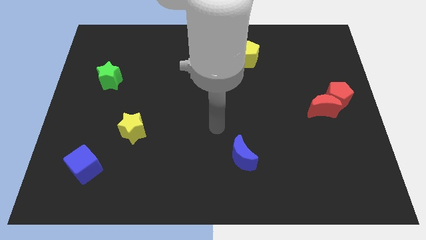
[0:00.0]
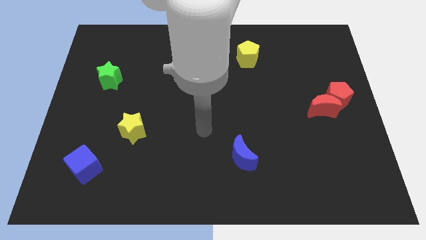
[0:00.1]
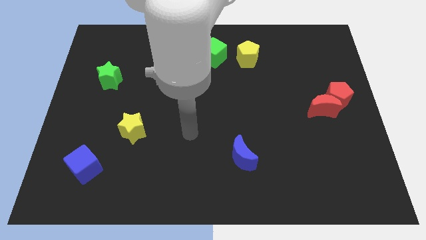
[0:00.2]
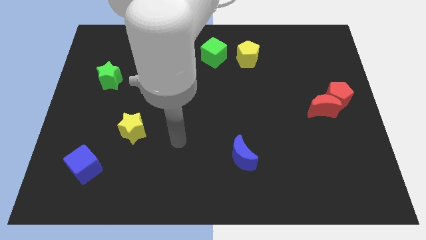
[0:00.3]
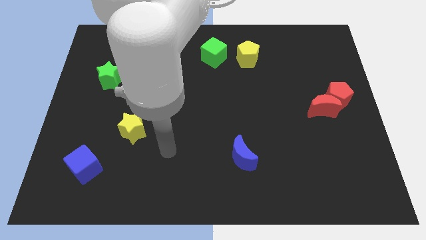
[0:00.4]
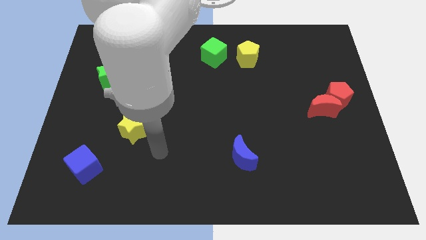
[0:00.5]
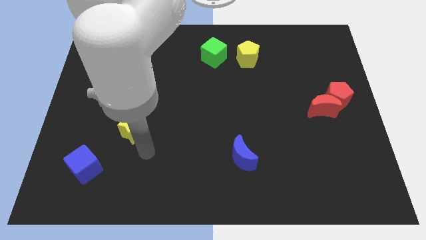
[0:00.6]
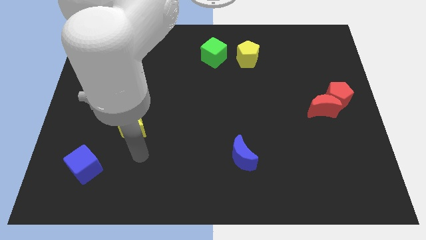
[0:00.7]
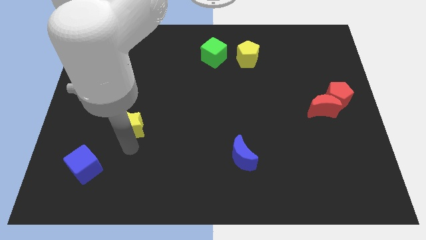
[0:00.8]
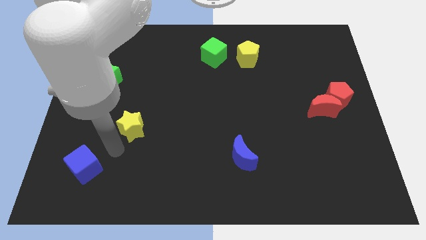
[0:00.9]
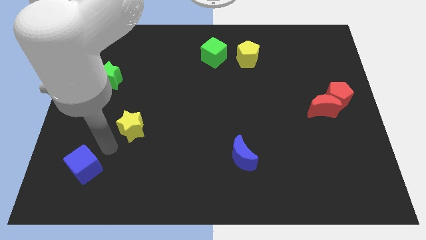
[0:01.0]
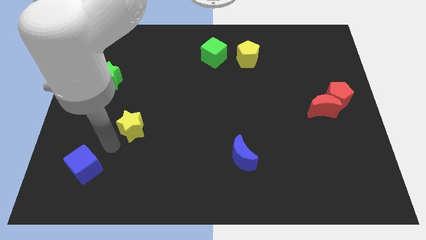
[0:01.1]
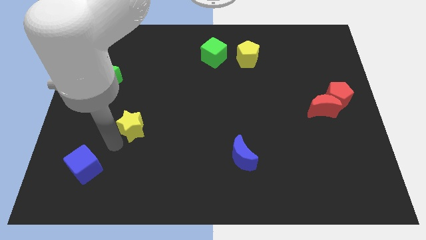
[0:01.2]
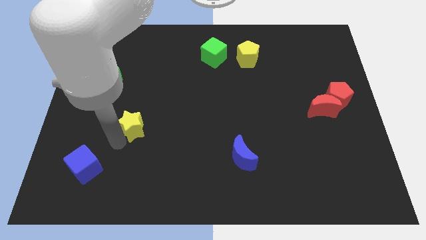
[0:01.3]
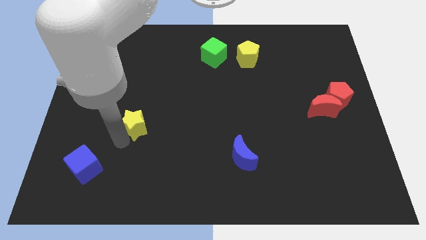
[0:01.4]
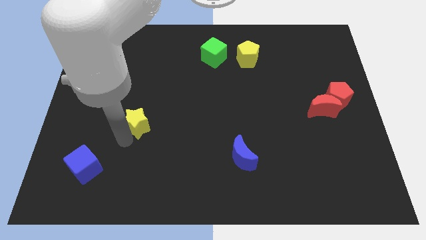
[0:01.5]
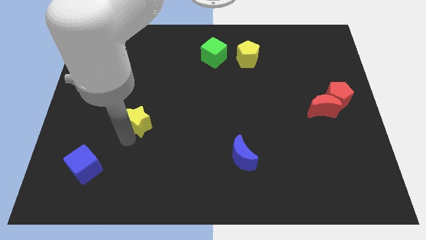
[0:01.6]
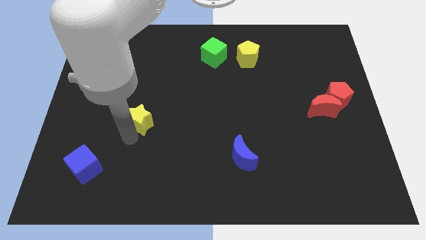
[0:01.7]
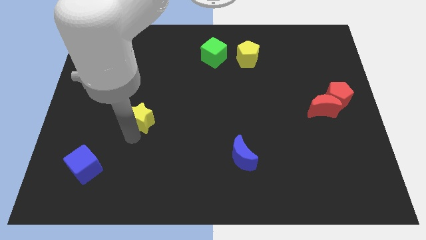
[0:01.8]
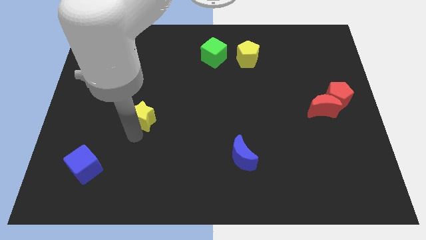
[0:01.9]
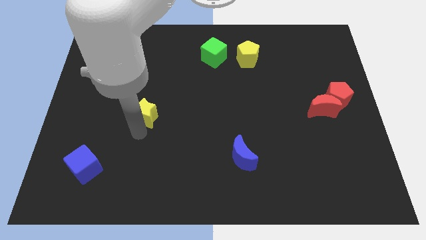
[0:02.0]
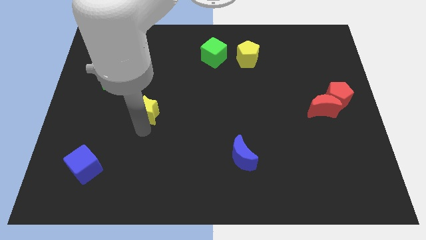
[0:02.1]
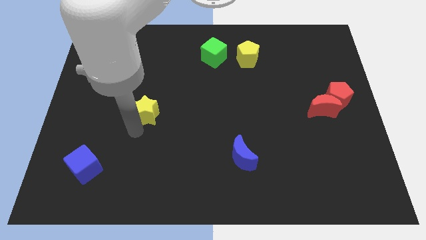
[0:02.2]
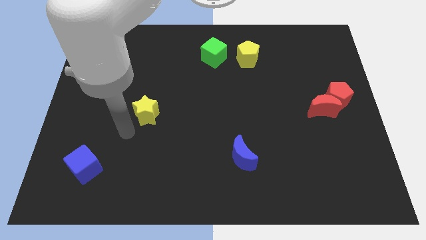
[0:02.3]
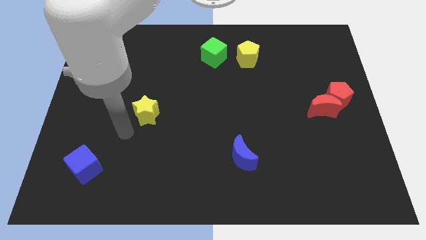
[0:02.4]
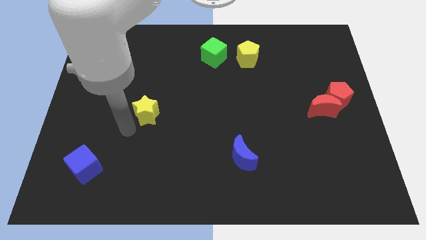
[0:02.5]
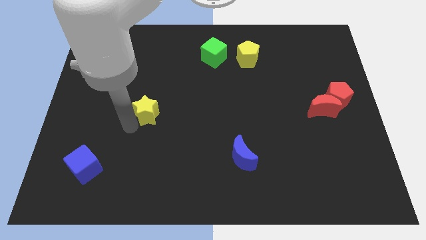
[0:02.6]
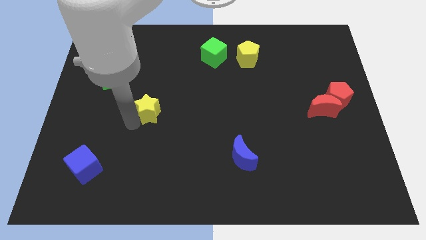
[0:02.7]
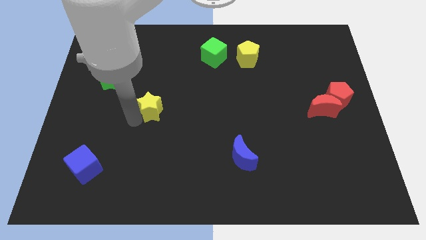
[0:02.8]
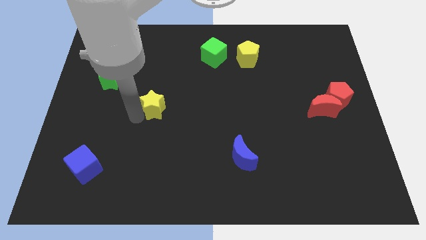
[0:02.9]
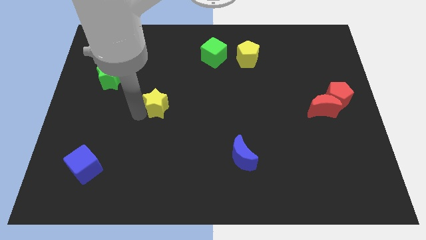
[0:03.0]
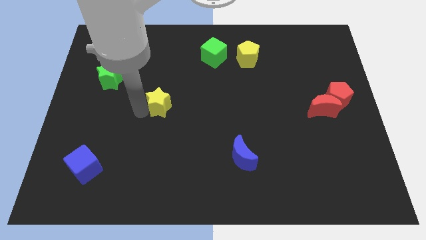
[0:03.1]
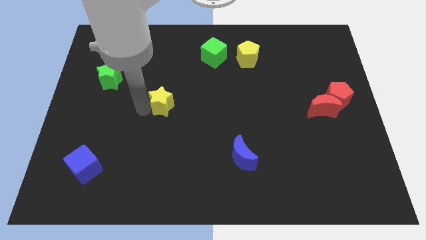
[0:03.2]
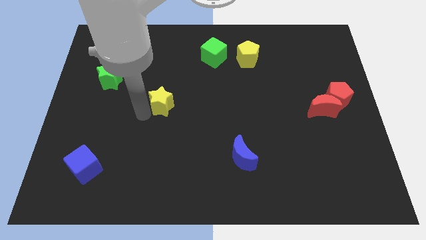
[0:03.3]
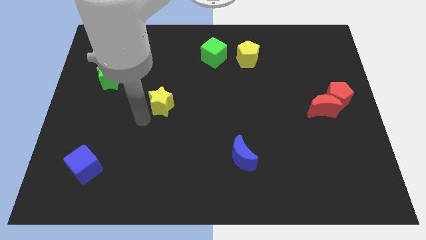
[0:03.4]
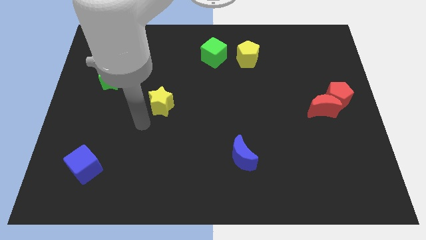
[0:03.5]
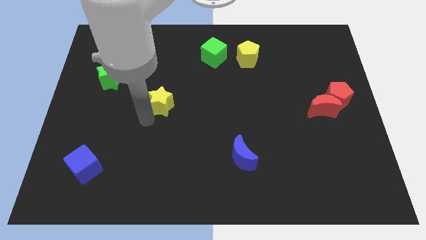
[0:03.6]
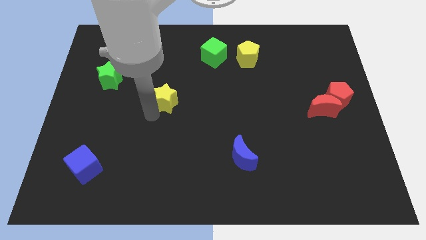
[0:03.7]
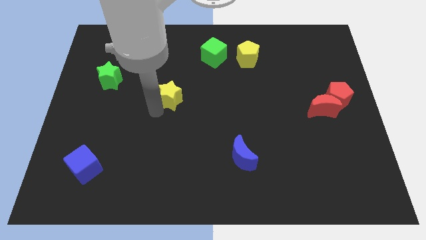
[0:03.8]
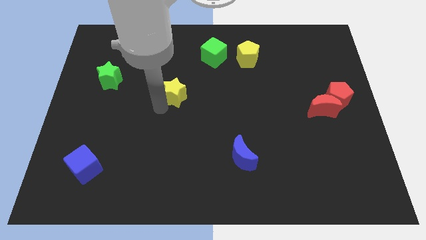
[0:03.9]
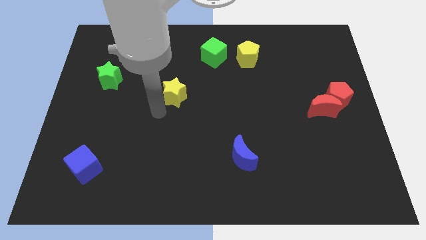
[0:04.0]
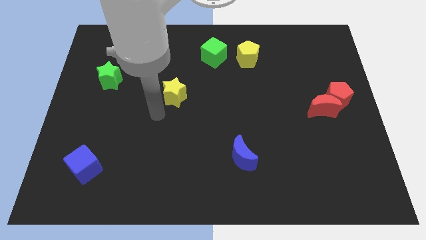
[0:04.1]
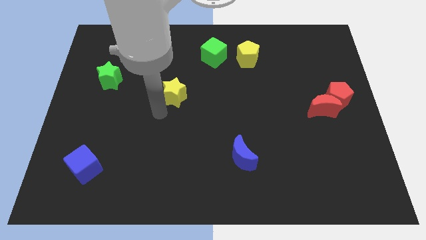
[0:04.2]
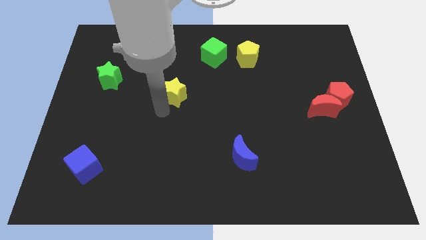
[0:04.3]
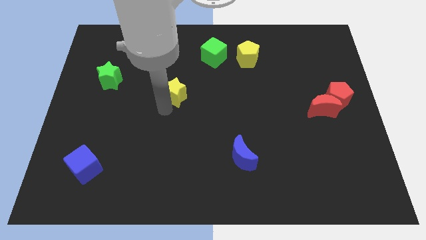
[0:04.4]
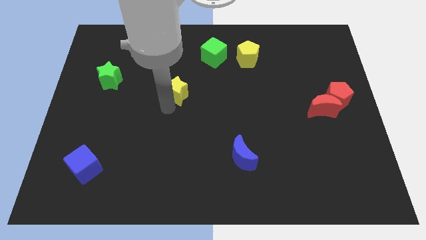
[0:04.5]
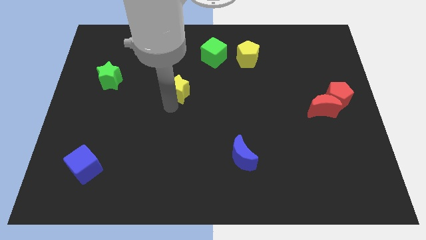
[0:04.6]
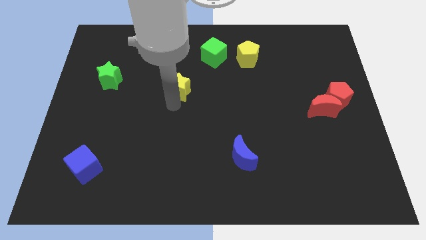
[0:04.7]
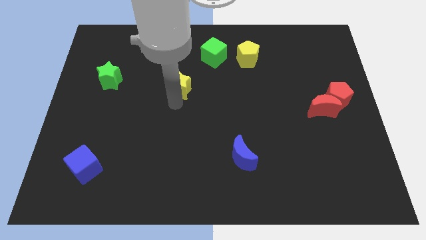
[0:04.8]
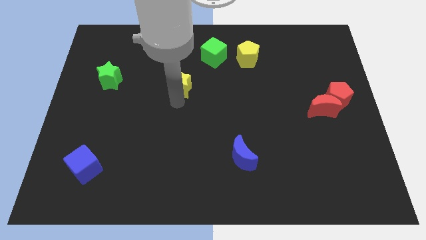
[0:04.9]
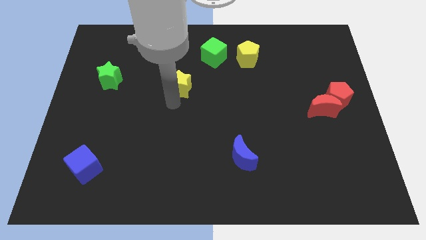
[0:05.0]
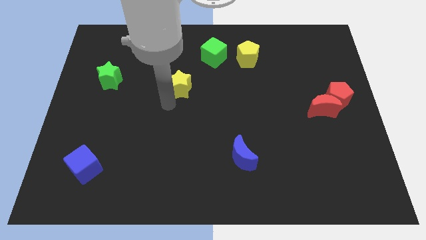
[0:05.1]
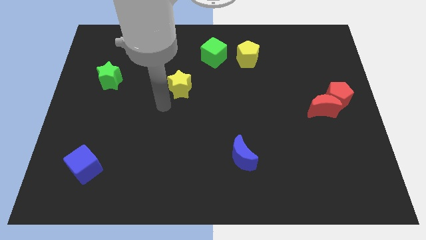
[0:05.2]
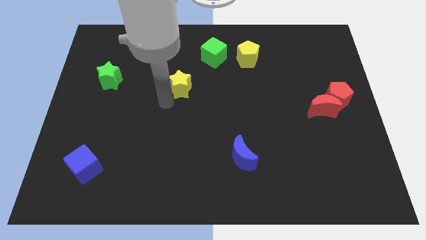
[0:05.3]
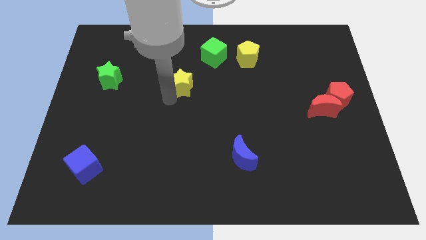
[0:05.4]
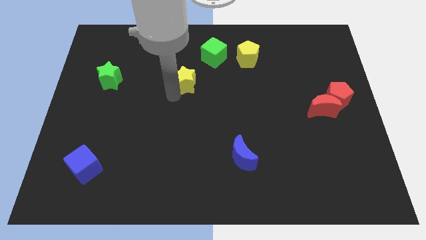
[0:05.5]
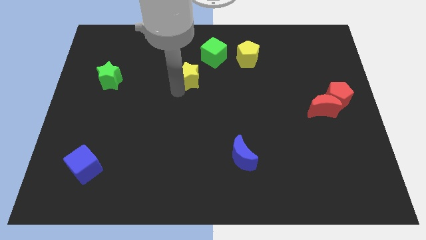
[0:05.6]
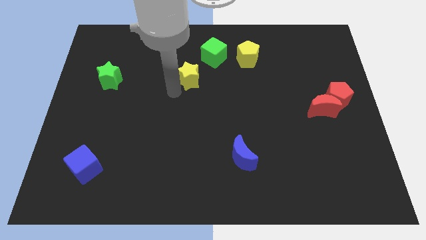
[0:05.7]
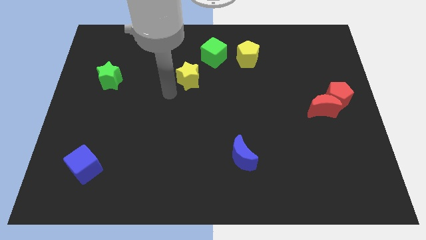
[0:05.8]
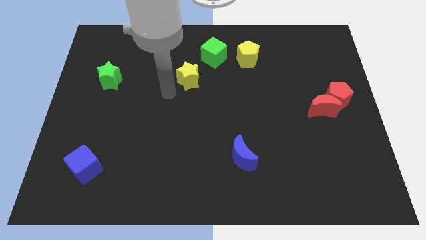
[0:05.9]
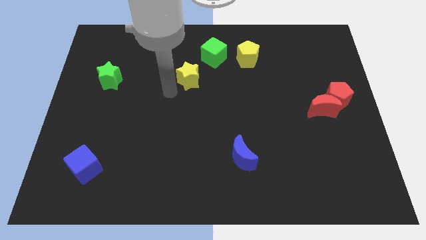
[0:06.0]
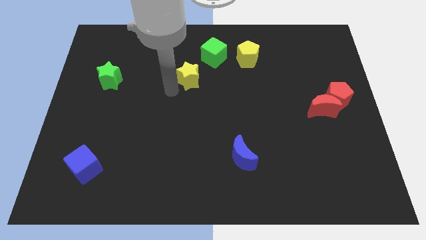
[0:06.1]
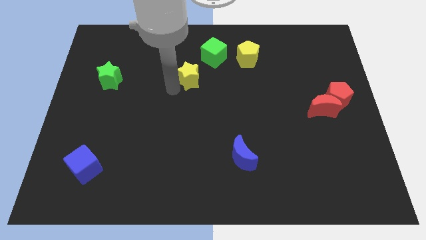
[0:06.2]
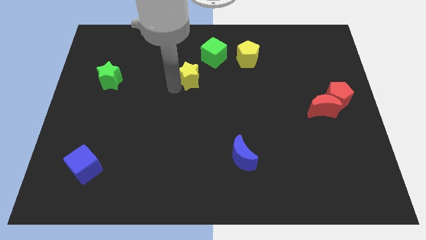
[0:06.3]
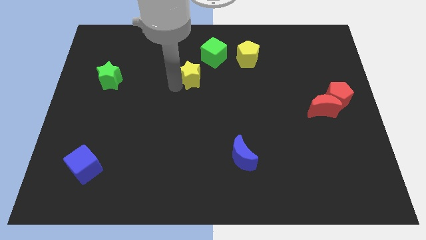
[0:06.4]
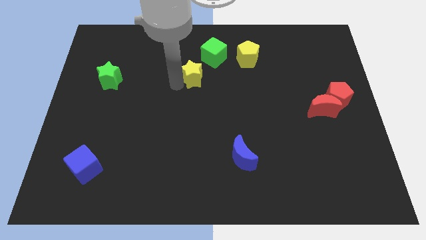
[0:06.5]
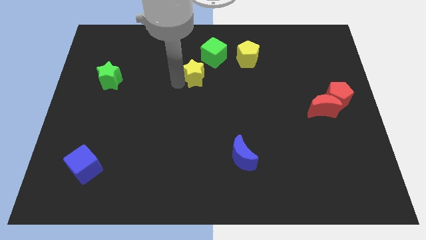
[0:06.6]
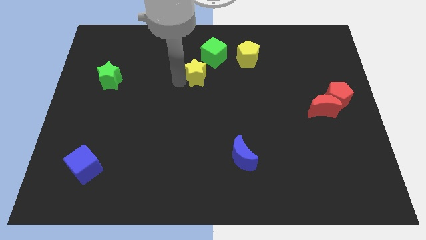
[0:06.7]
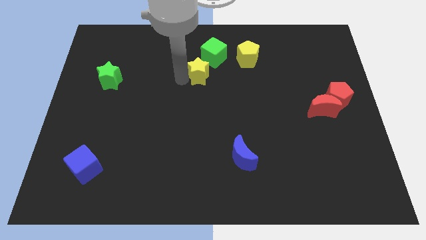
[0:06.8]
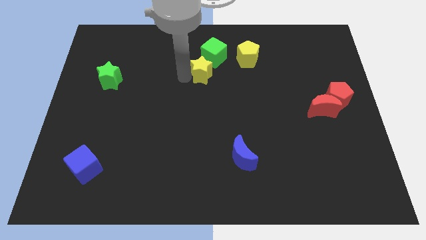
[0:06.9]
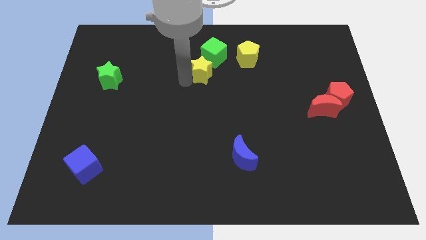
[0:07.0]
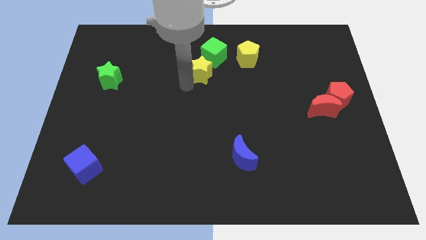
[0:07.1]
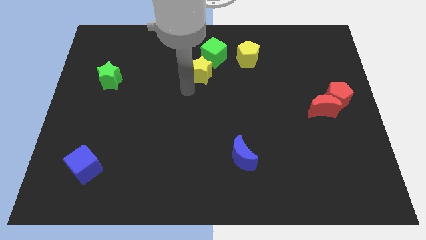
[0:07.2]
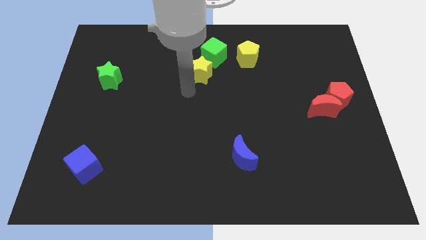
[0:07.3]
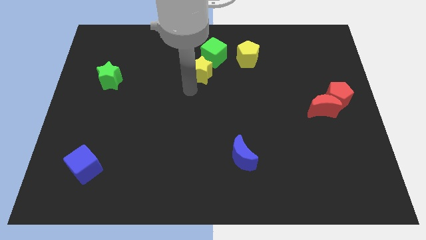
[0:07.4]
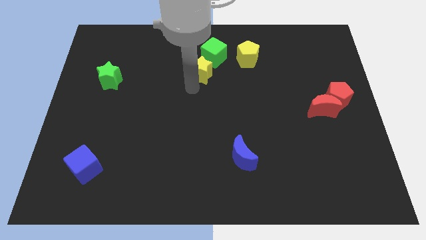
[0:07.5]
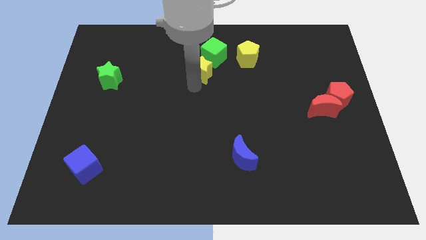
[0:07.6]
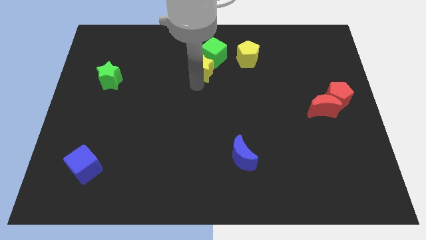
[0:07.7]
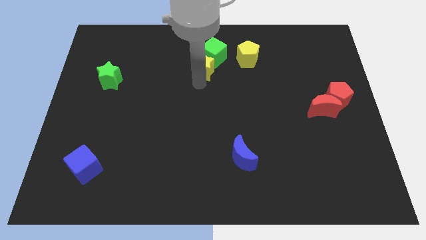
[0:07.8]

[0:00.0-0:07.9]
put the yellow star towards the green cube
